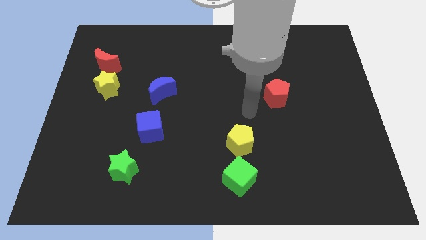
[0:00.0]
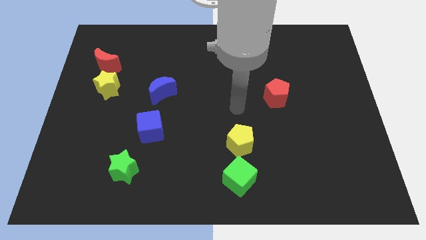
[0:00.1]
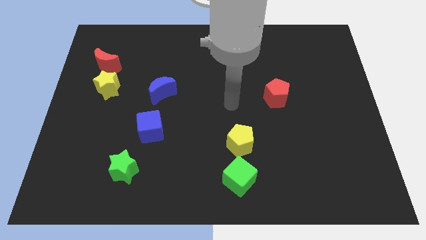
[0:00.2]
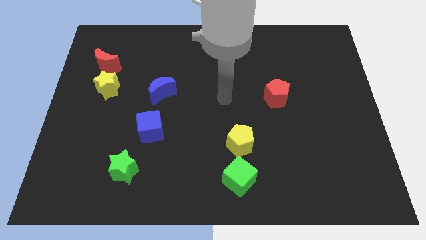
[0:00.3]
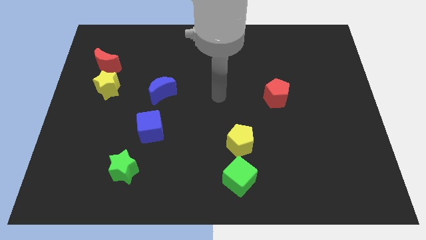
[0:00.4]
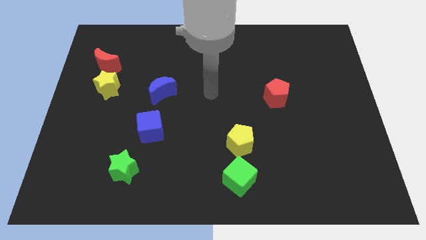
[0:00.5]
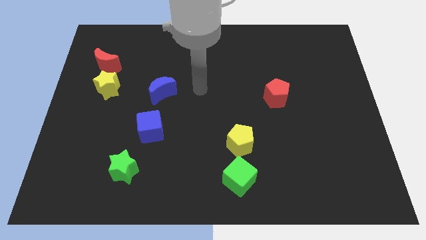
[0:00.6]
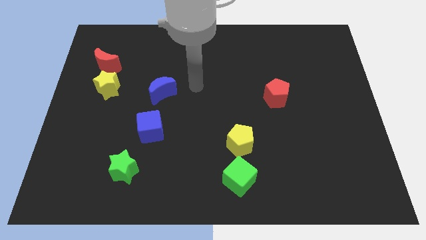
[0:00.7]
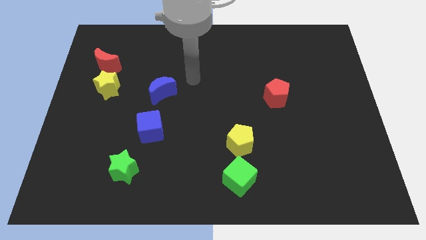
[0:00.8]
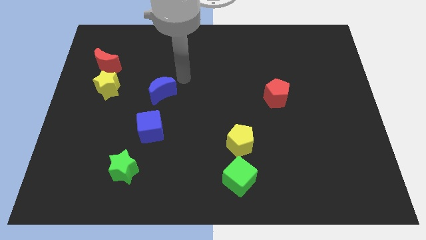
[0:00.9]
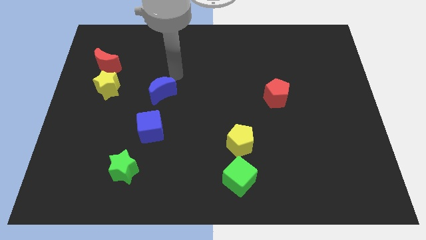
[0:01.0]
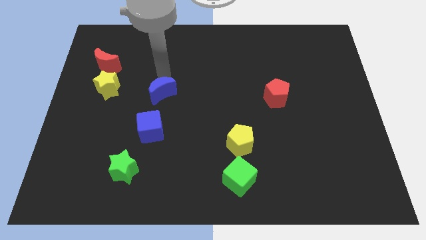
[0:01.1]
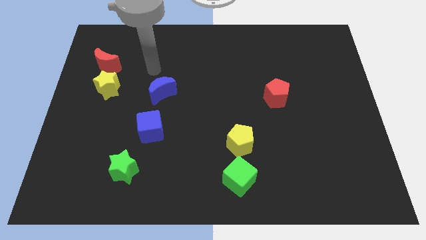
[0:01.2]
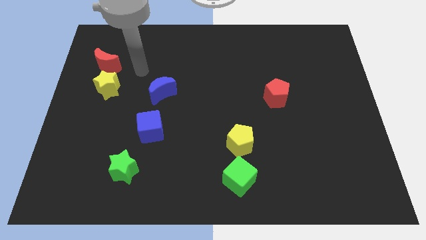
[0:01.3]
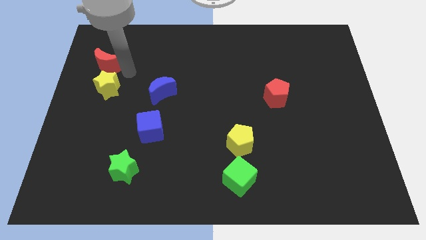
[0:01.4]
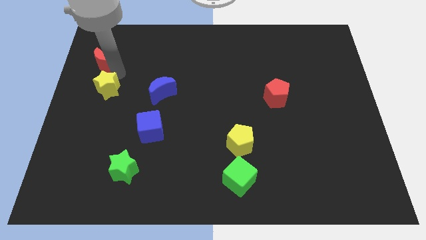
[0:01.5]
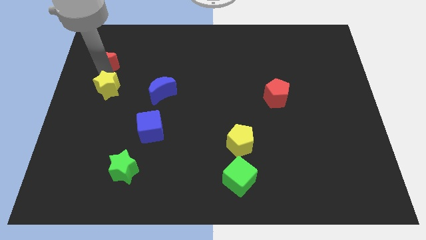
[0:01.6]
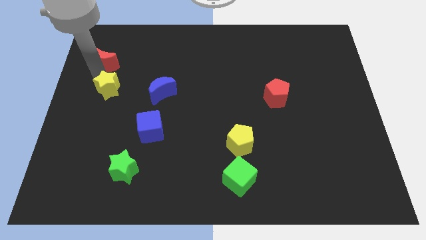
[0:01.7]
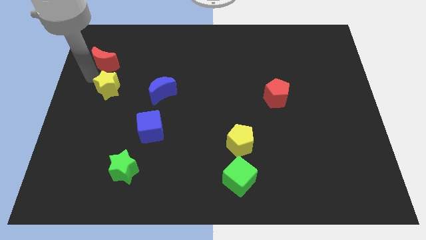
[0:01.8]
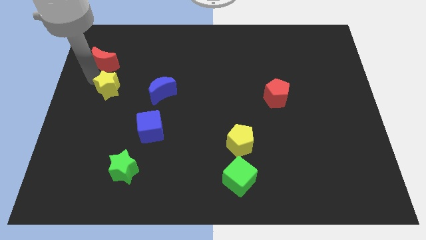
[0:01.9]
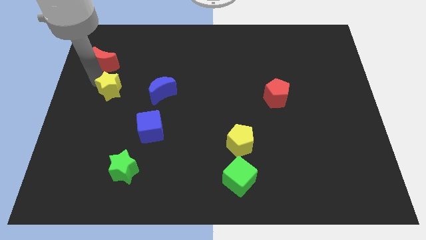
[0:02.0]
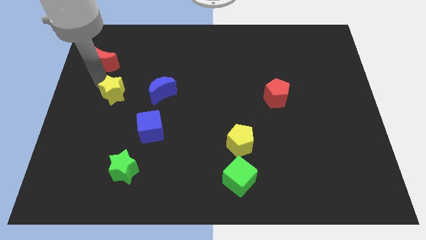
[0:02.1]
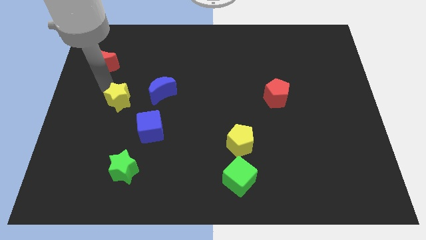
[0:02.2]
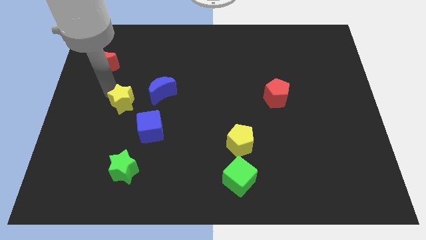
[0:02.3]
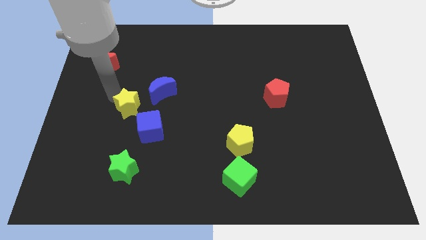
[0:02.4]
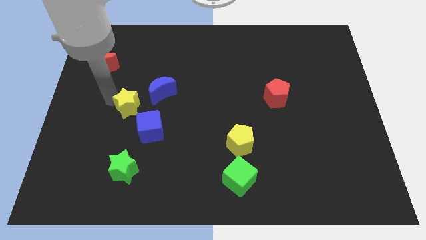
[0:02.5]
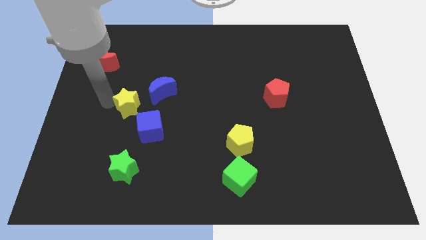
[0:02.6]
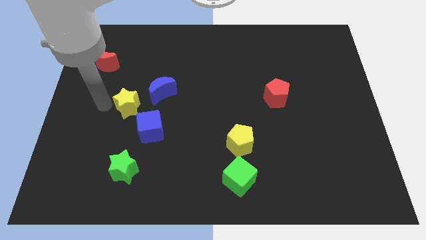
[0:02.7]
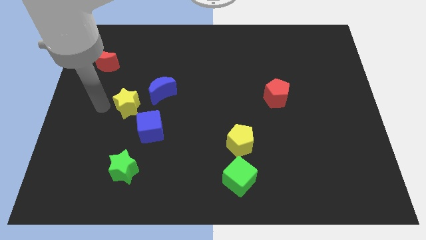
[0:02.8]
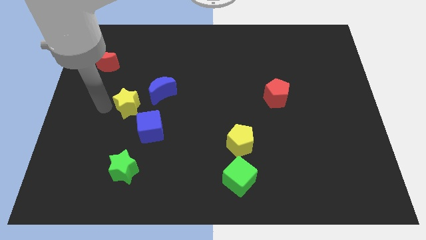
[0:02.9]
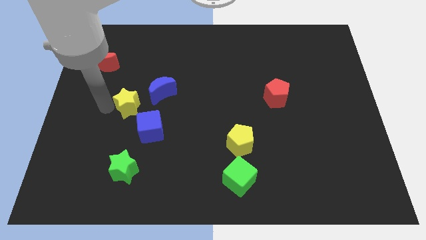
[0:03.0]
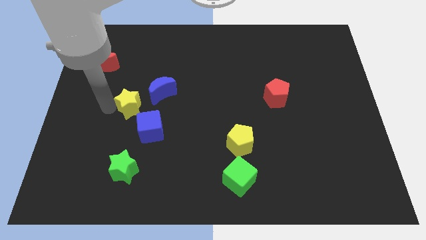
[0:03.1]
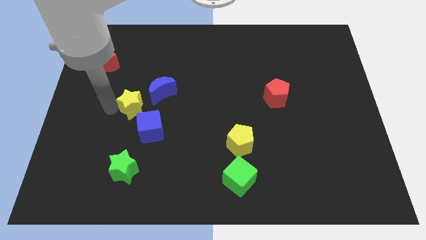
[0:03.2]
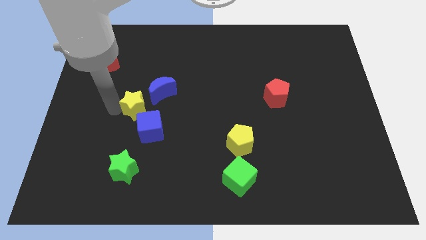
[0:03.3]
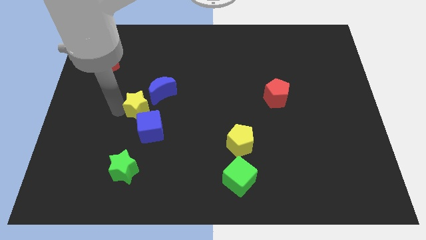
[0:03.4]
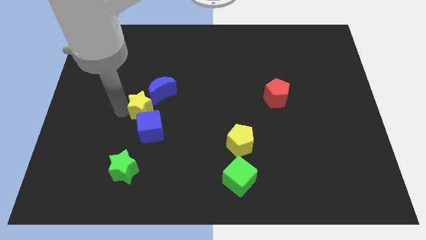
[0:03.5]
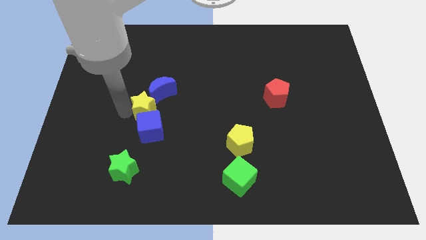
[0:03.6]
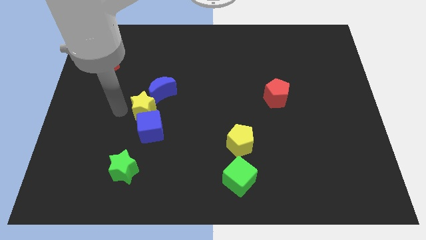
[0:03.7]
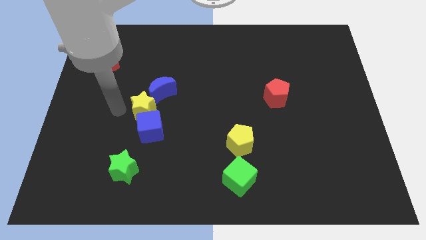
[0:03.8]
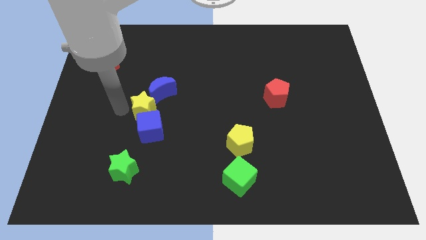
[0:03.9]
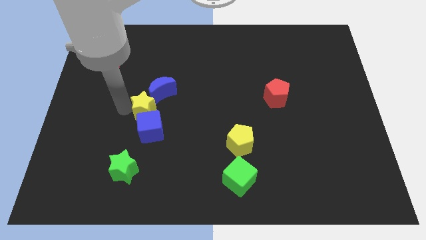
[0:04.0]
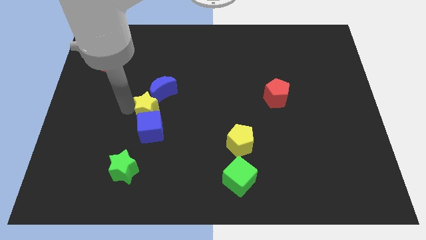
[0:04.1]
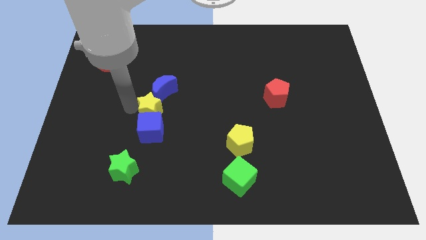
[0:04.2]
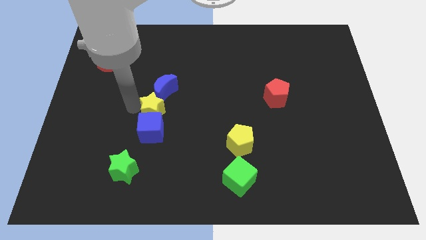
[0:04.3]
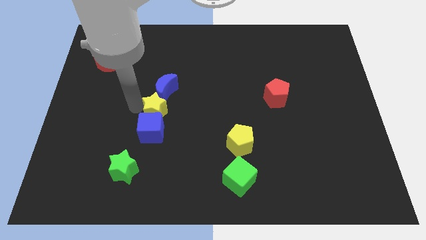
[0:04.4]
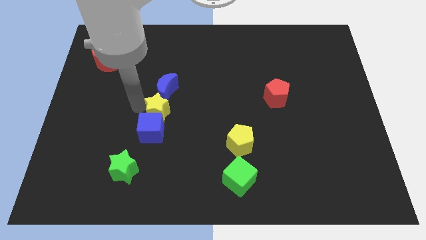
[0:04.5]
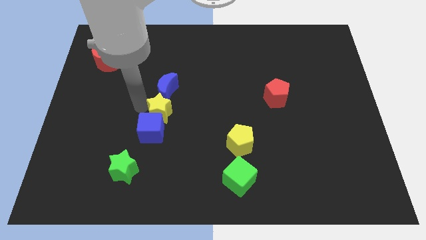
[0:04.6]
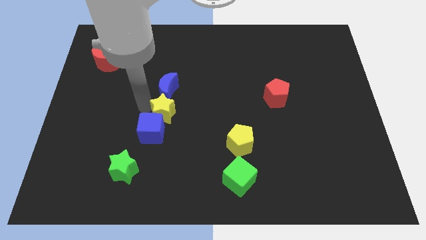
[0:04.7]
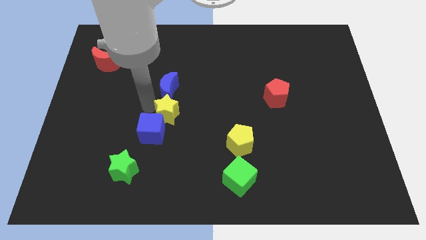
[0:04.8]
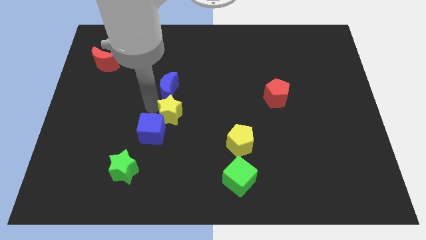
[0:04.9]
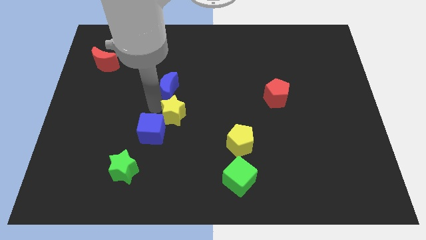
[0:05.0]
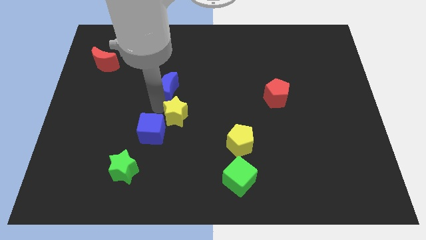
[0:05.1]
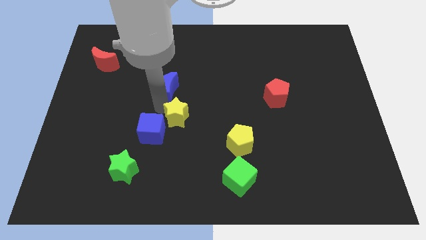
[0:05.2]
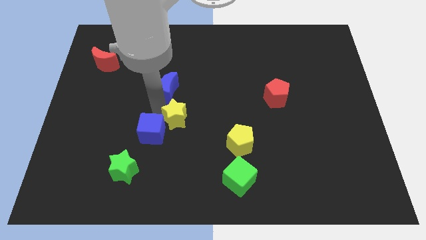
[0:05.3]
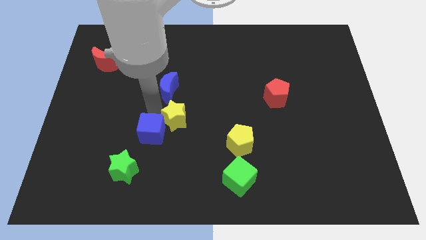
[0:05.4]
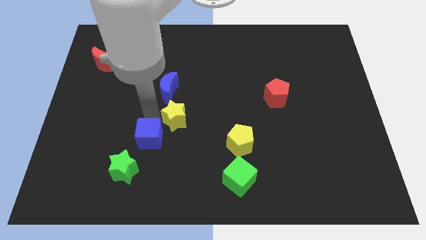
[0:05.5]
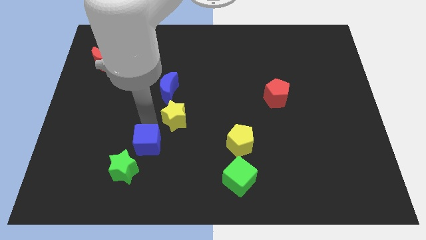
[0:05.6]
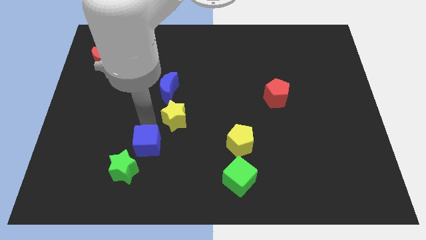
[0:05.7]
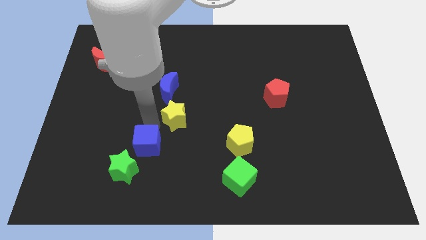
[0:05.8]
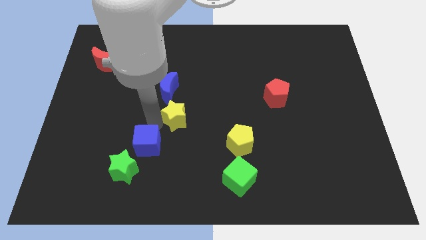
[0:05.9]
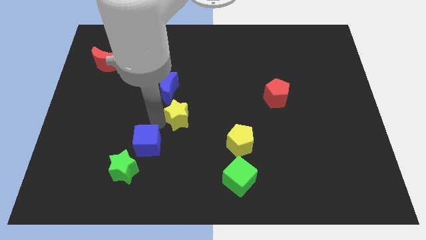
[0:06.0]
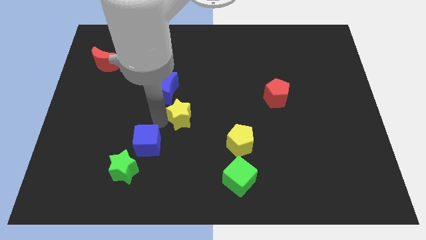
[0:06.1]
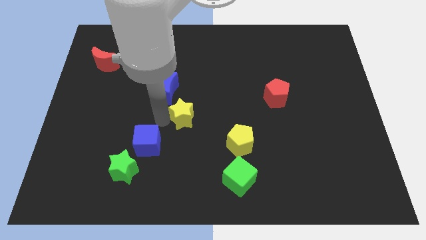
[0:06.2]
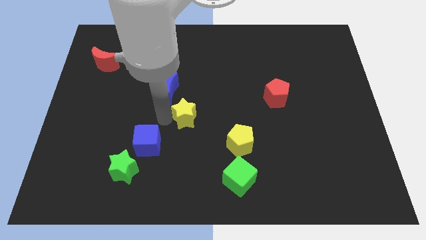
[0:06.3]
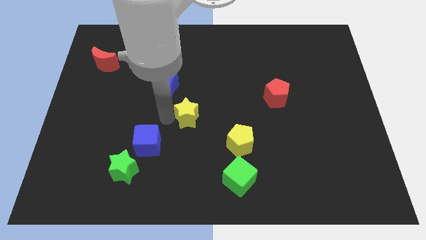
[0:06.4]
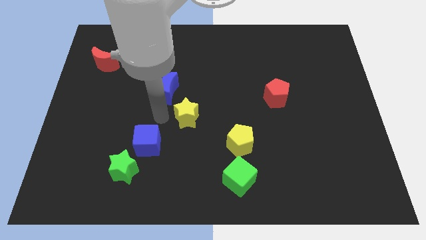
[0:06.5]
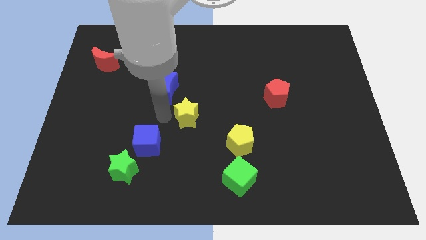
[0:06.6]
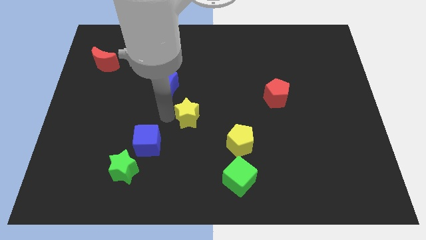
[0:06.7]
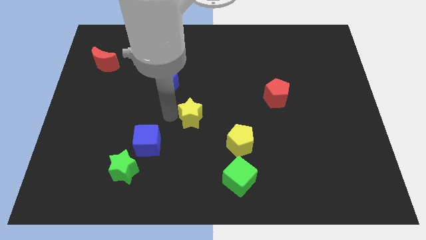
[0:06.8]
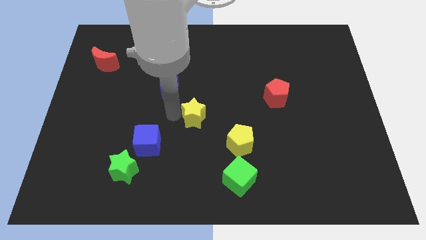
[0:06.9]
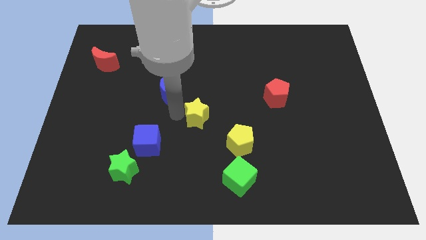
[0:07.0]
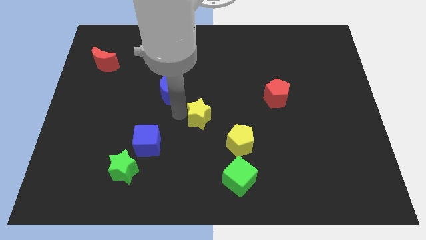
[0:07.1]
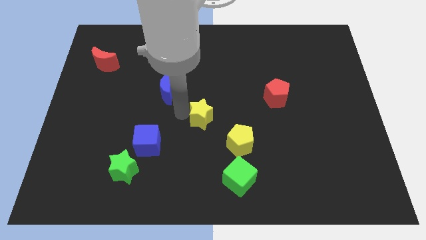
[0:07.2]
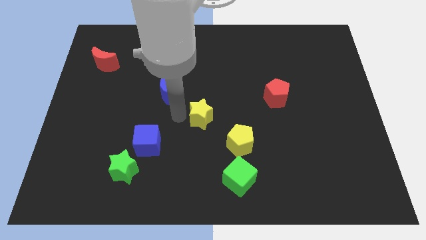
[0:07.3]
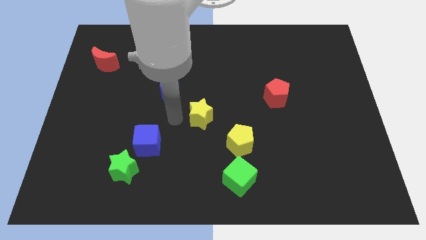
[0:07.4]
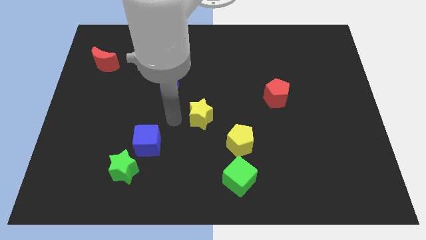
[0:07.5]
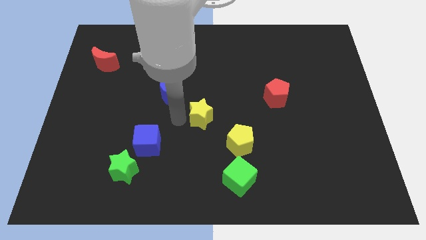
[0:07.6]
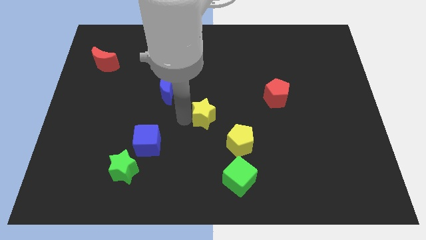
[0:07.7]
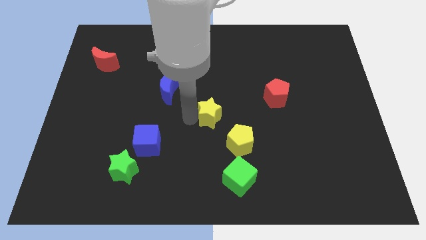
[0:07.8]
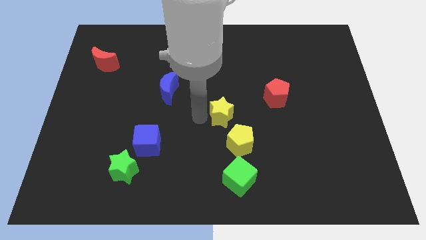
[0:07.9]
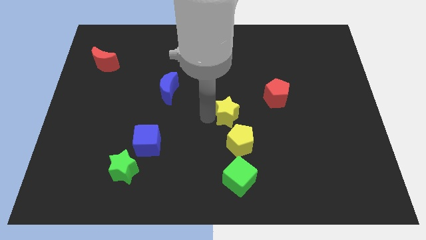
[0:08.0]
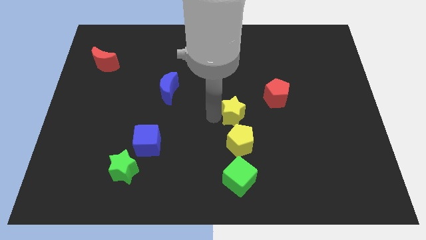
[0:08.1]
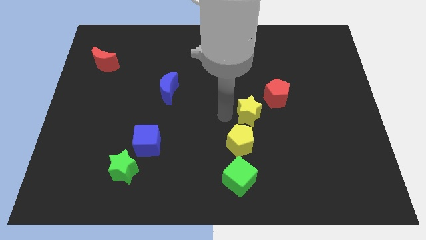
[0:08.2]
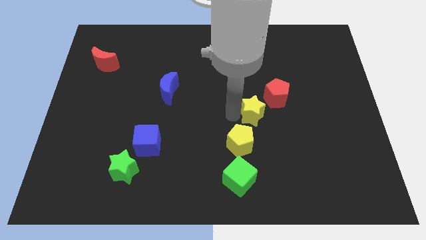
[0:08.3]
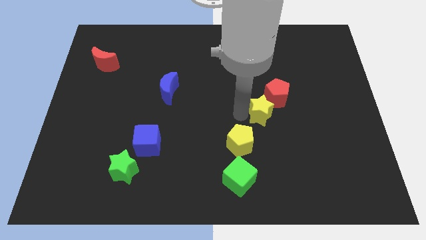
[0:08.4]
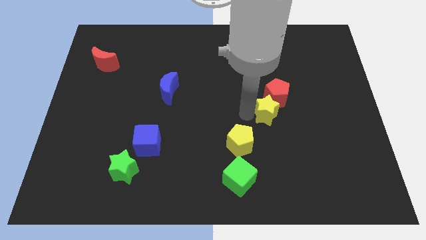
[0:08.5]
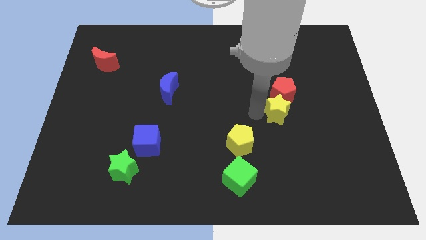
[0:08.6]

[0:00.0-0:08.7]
move the yellow star to the bottom right side of the red pentagon
